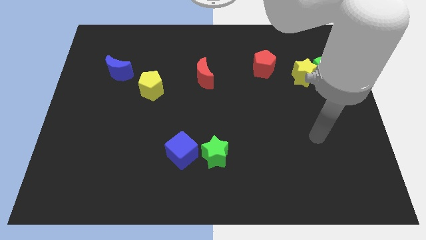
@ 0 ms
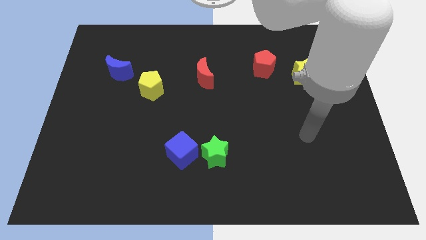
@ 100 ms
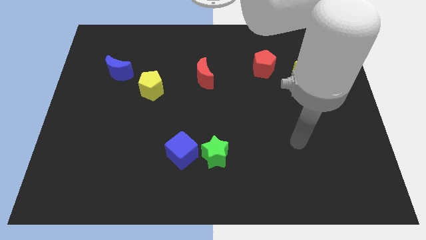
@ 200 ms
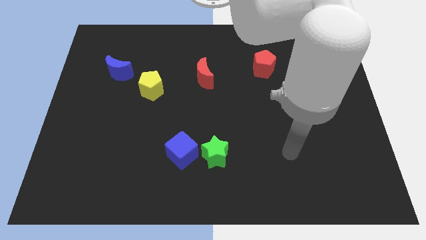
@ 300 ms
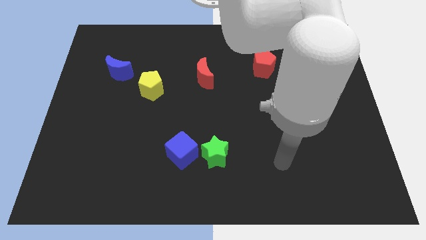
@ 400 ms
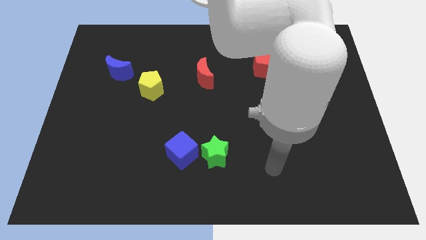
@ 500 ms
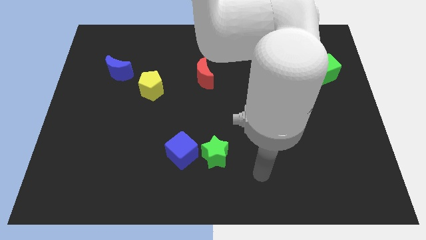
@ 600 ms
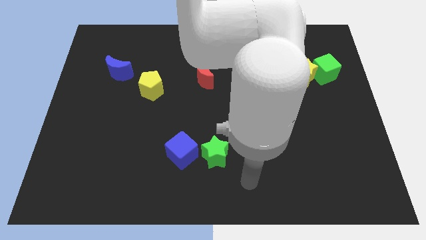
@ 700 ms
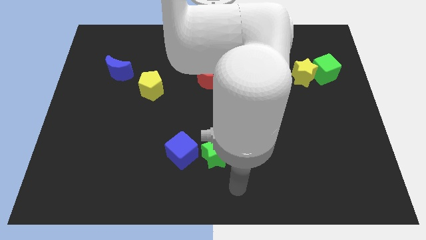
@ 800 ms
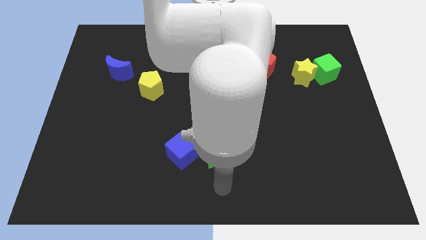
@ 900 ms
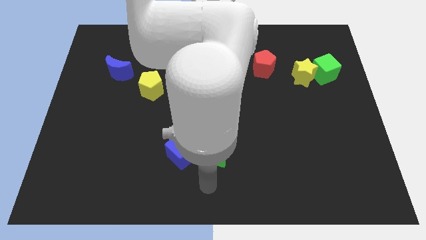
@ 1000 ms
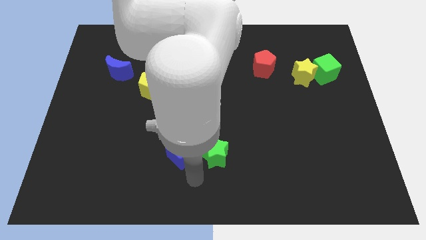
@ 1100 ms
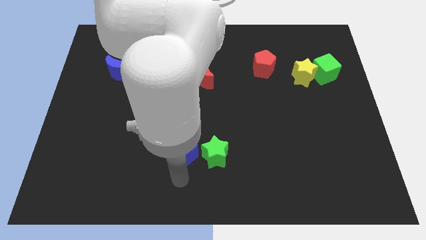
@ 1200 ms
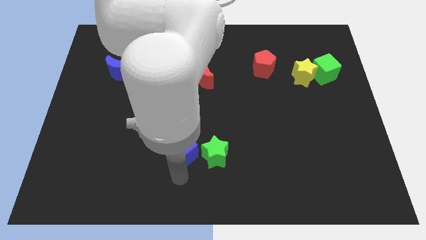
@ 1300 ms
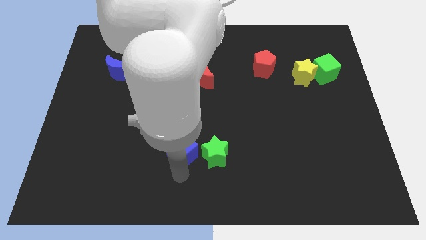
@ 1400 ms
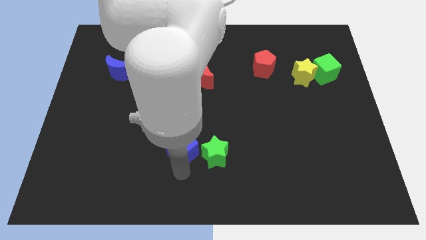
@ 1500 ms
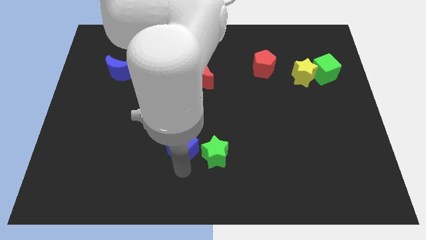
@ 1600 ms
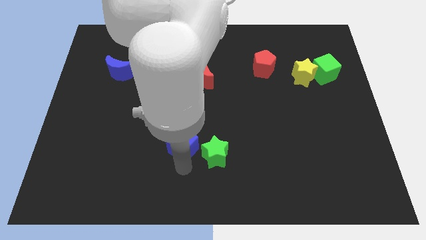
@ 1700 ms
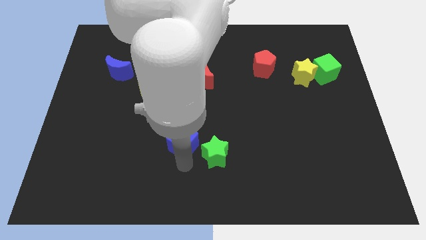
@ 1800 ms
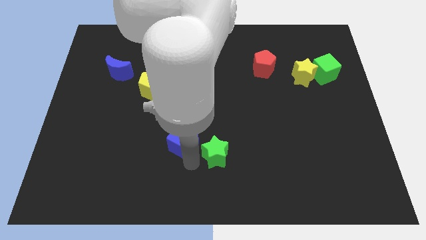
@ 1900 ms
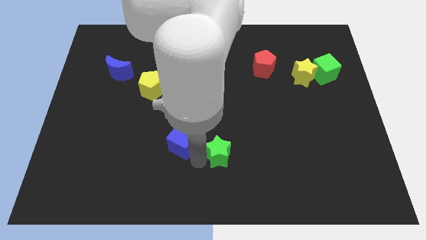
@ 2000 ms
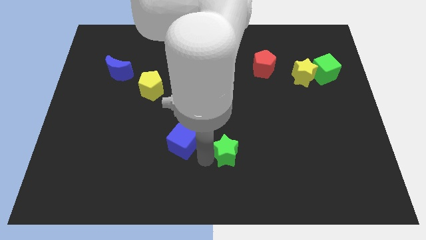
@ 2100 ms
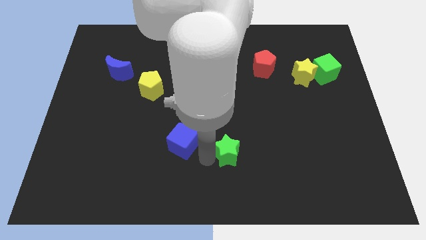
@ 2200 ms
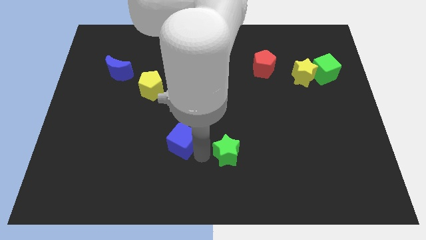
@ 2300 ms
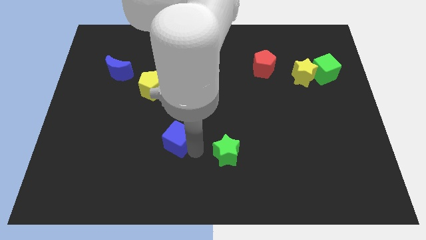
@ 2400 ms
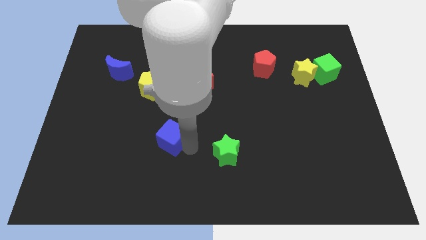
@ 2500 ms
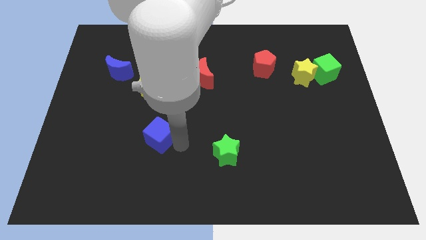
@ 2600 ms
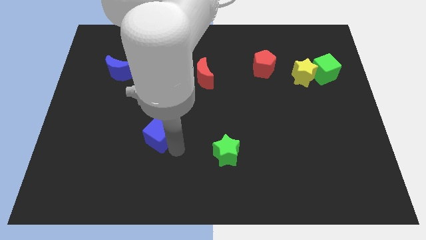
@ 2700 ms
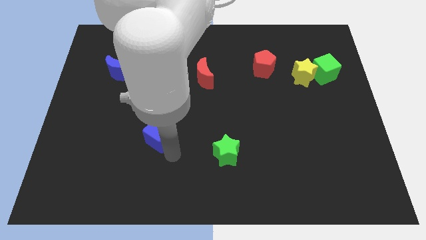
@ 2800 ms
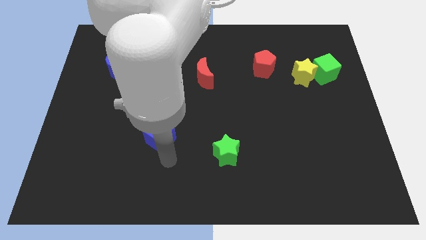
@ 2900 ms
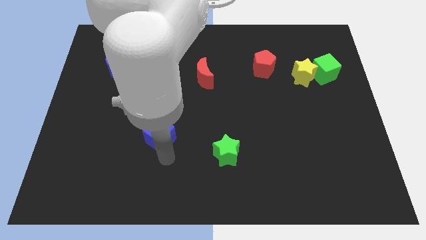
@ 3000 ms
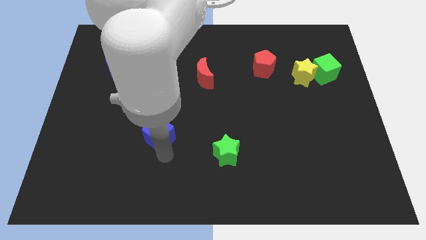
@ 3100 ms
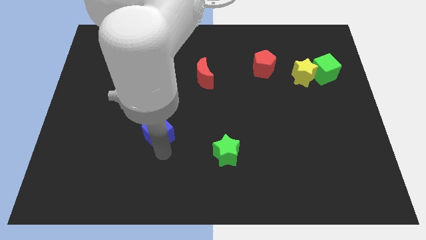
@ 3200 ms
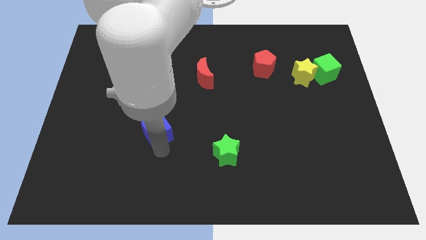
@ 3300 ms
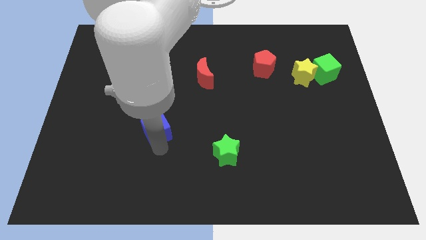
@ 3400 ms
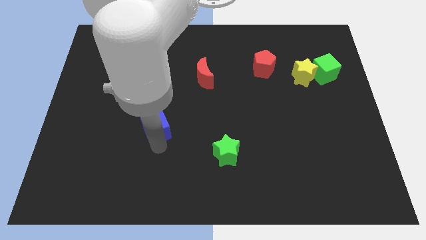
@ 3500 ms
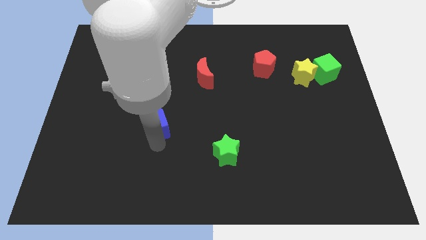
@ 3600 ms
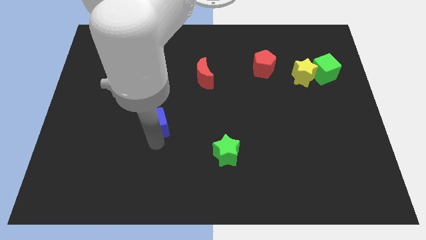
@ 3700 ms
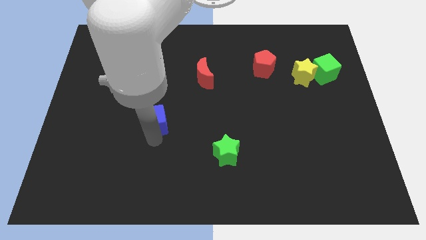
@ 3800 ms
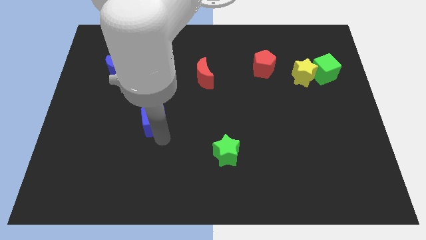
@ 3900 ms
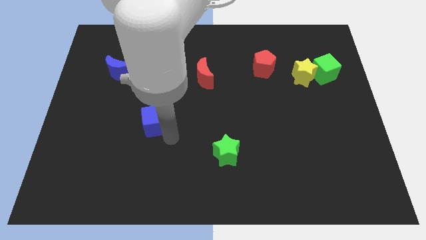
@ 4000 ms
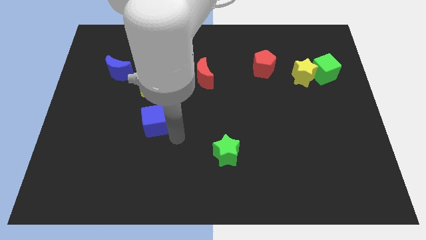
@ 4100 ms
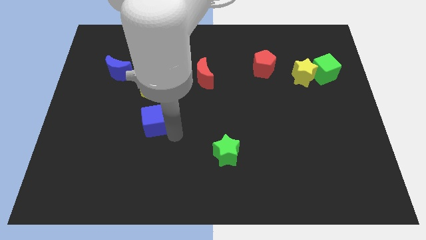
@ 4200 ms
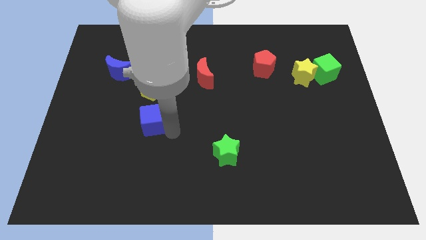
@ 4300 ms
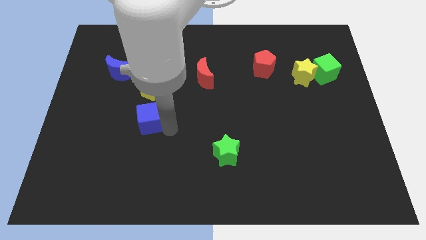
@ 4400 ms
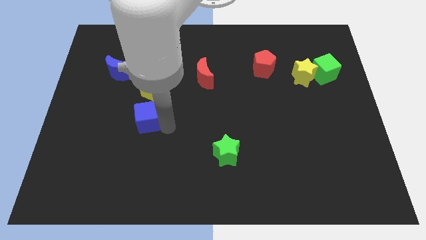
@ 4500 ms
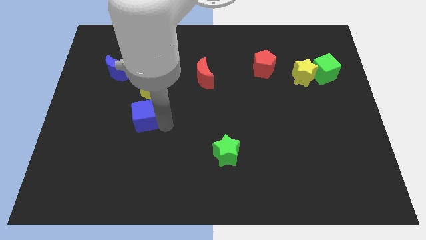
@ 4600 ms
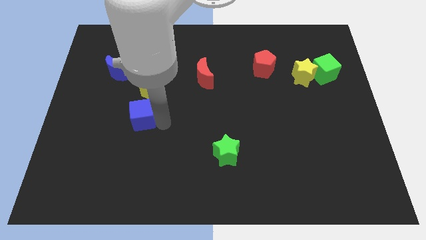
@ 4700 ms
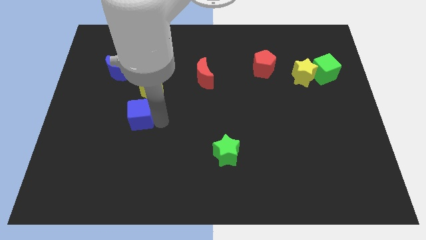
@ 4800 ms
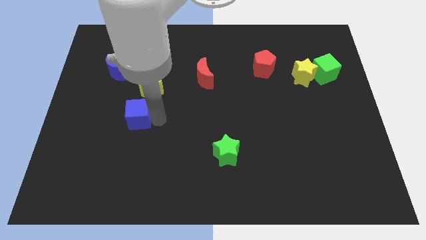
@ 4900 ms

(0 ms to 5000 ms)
slide the blue cube diagonally down and to the left of the yellow pentagon

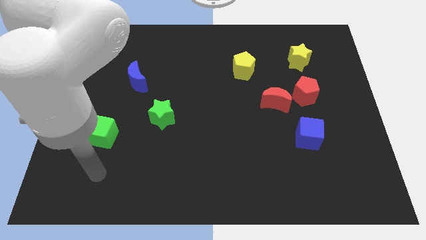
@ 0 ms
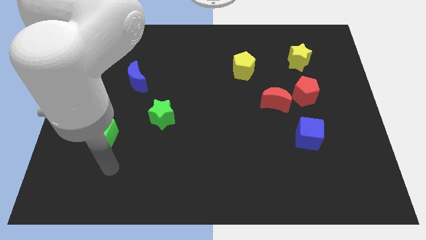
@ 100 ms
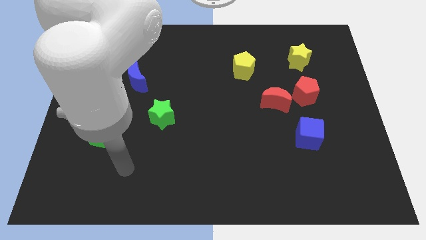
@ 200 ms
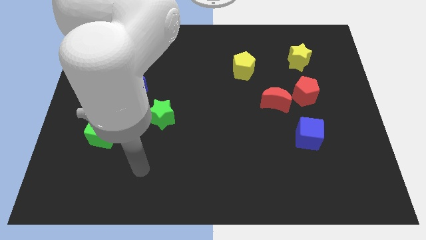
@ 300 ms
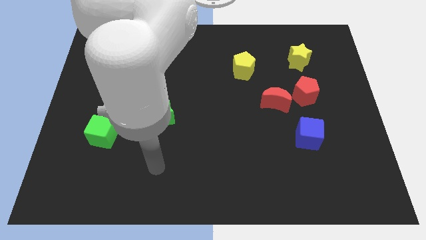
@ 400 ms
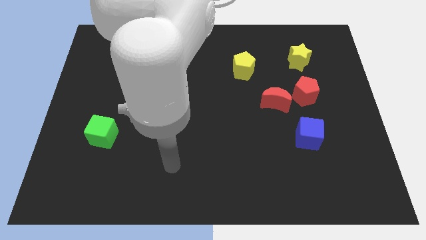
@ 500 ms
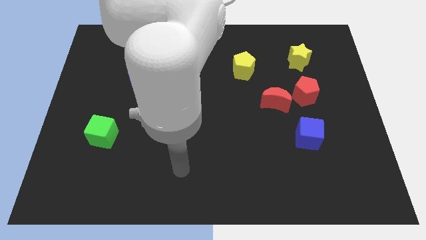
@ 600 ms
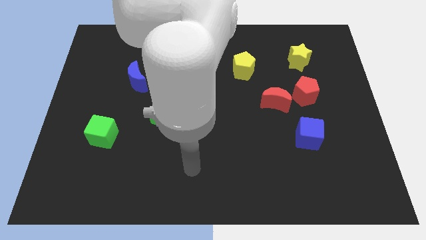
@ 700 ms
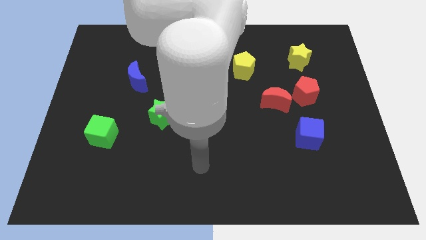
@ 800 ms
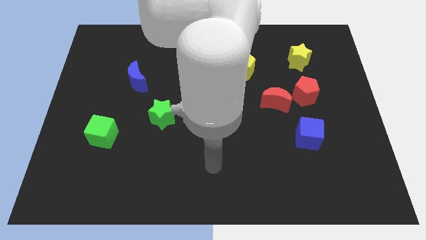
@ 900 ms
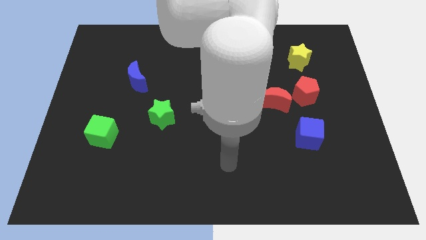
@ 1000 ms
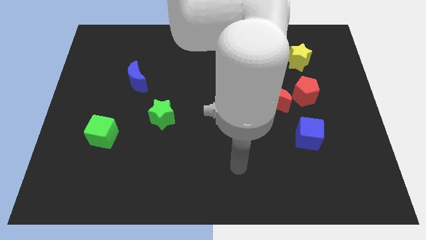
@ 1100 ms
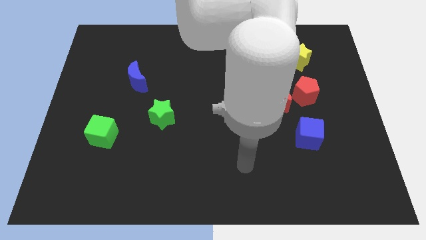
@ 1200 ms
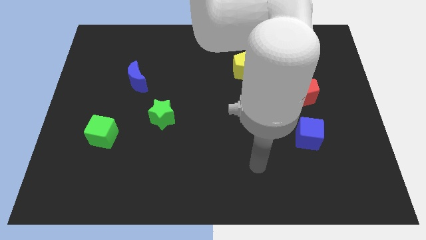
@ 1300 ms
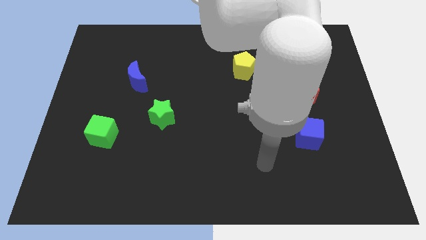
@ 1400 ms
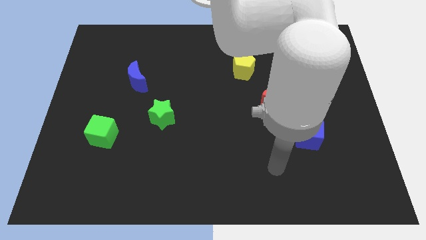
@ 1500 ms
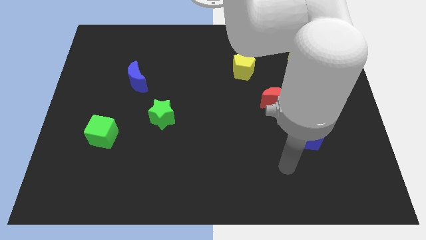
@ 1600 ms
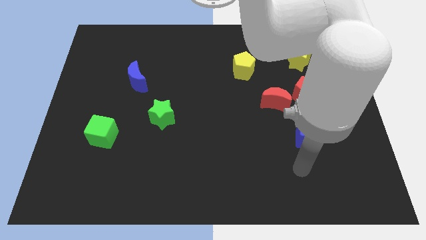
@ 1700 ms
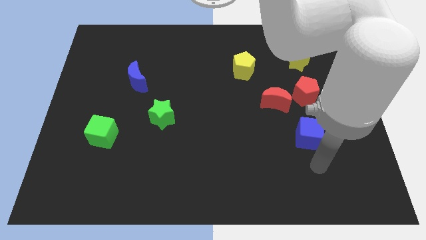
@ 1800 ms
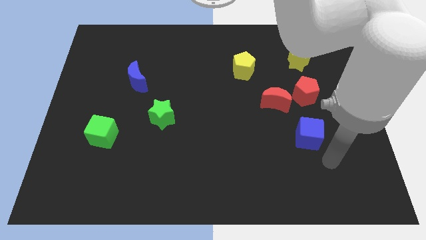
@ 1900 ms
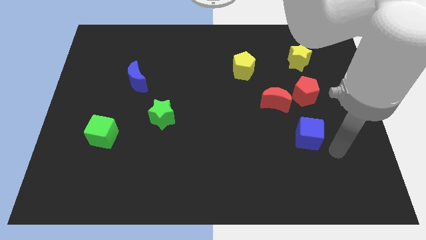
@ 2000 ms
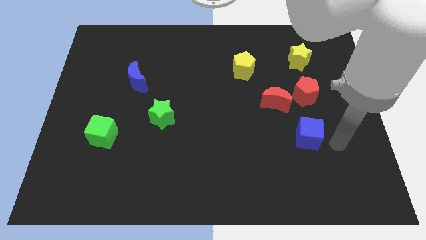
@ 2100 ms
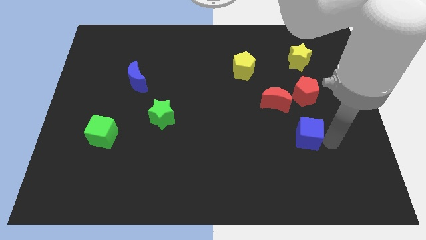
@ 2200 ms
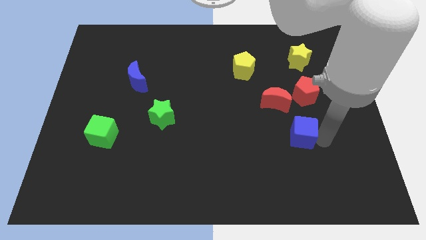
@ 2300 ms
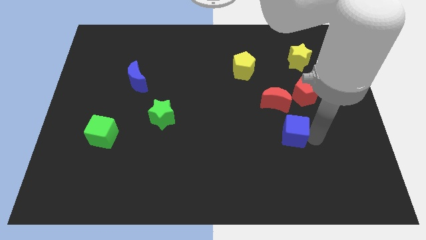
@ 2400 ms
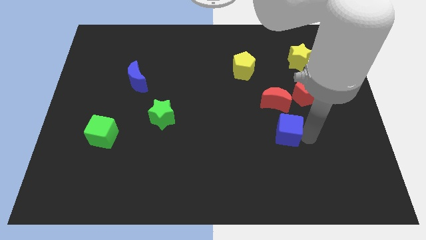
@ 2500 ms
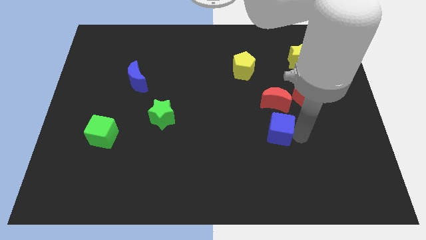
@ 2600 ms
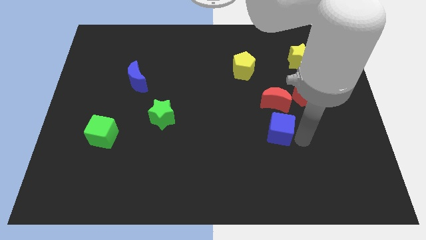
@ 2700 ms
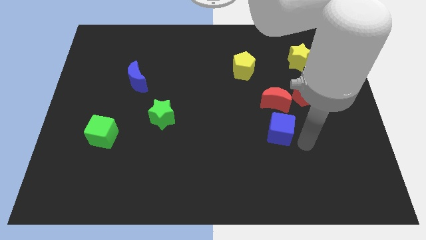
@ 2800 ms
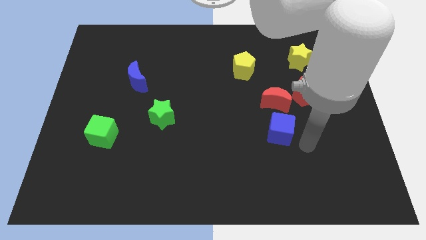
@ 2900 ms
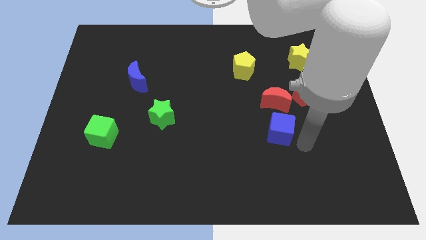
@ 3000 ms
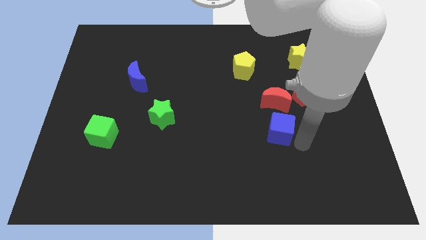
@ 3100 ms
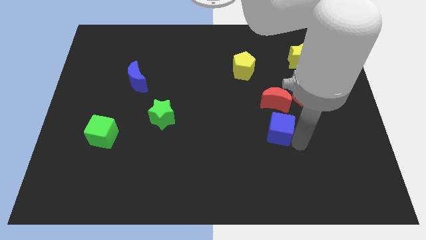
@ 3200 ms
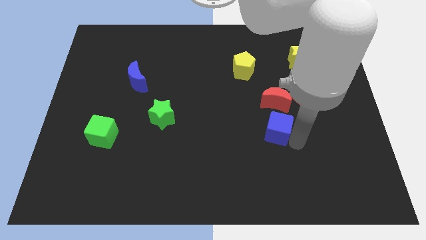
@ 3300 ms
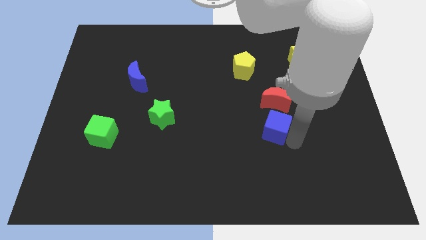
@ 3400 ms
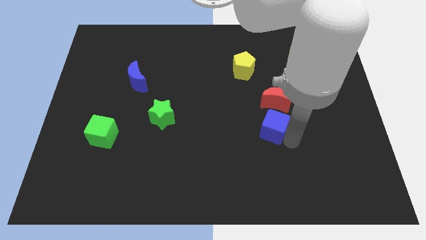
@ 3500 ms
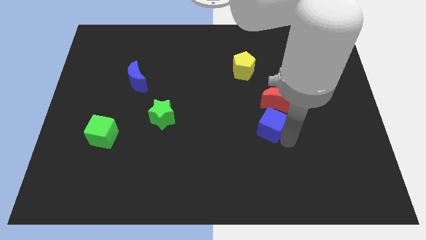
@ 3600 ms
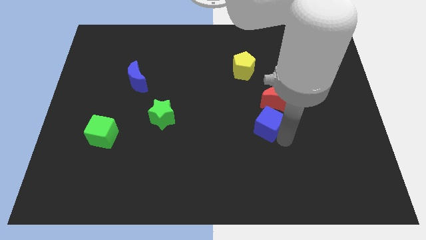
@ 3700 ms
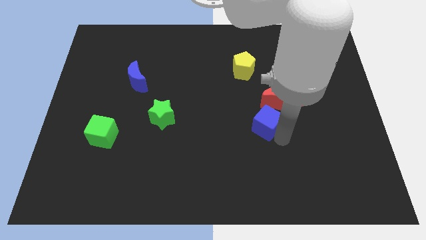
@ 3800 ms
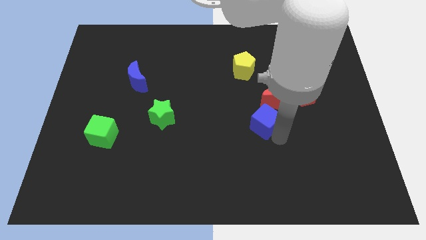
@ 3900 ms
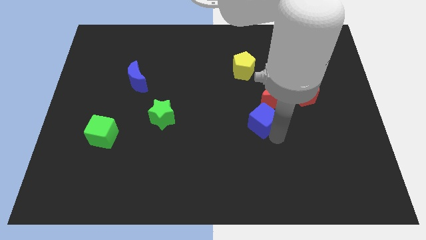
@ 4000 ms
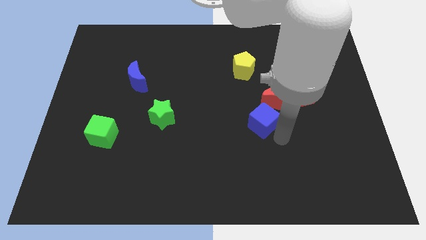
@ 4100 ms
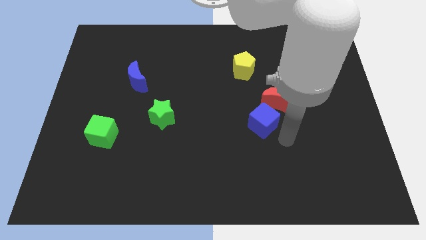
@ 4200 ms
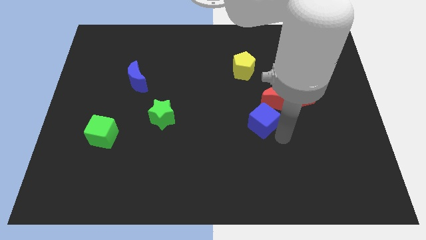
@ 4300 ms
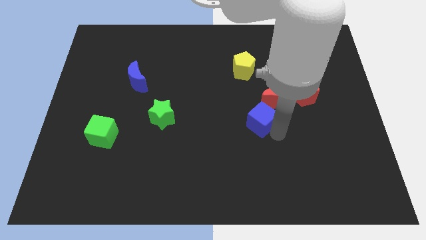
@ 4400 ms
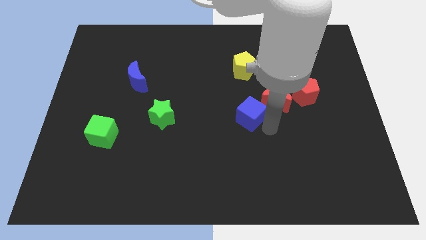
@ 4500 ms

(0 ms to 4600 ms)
push the blue cube to the left side of the red moon
